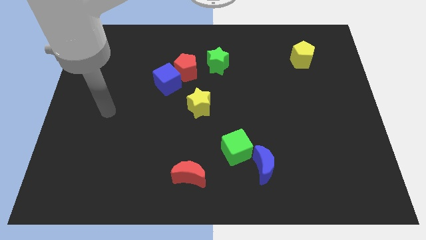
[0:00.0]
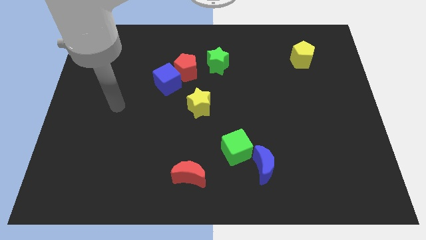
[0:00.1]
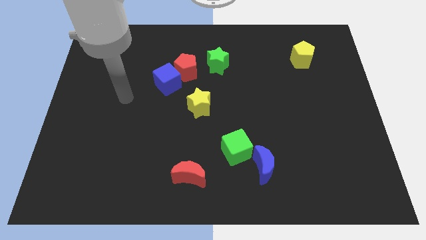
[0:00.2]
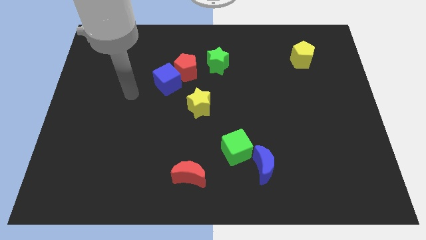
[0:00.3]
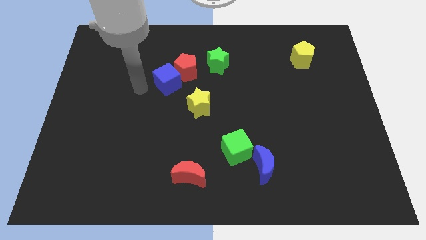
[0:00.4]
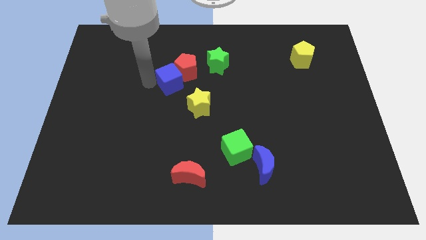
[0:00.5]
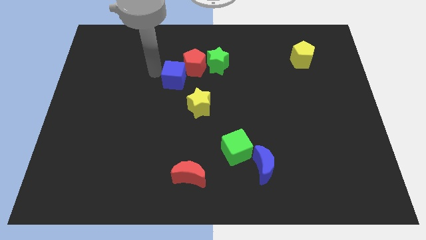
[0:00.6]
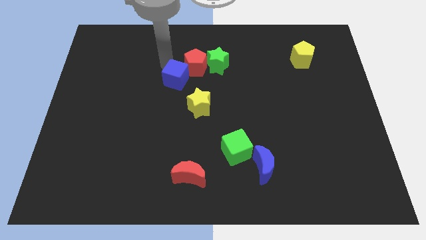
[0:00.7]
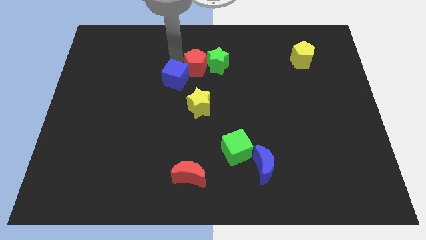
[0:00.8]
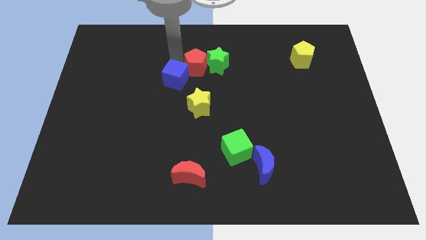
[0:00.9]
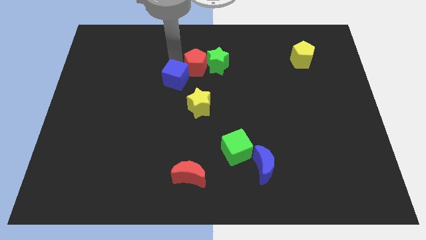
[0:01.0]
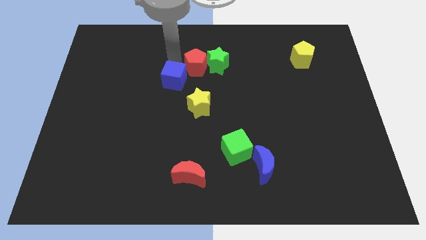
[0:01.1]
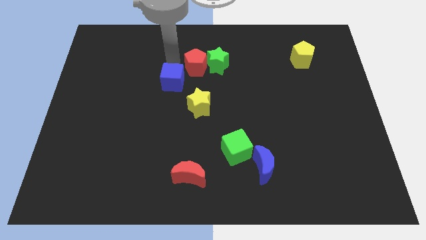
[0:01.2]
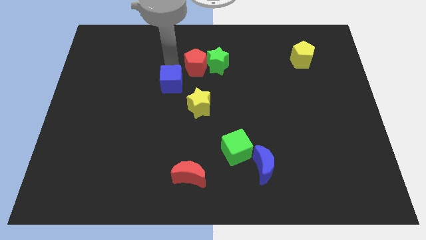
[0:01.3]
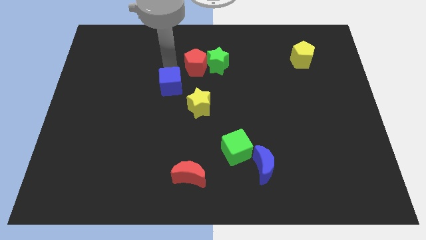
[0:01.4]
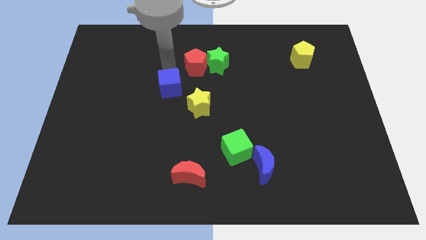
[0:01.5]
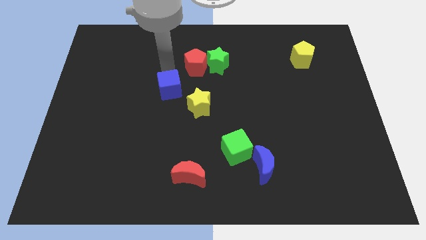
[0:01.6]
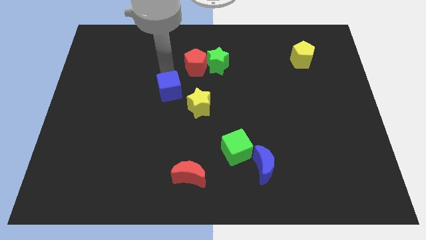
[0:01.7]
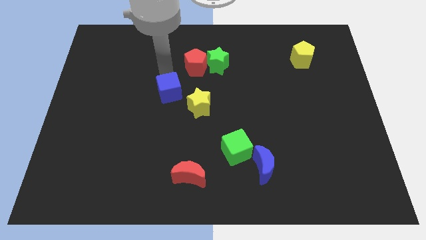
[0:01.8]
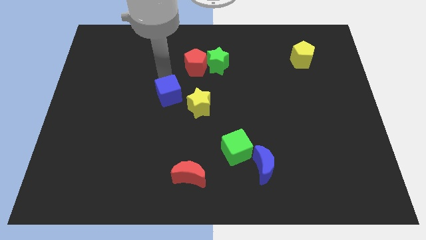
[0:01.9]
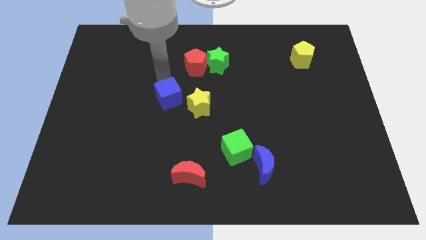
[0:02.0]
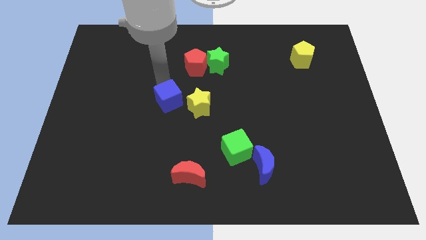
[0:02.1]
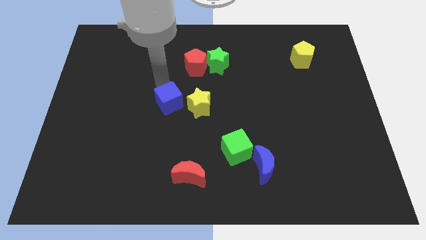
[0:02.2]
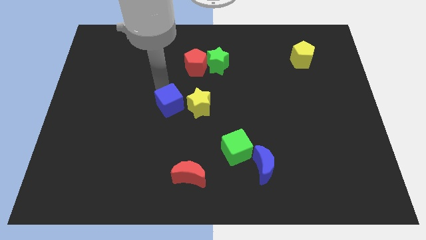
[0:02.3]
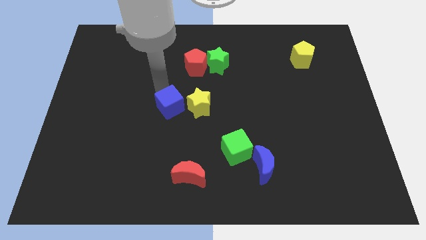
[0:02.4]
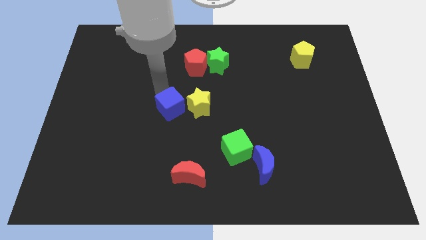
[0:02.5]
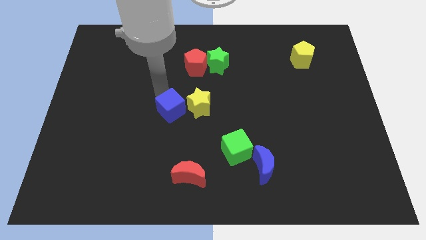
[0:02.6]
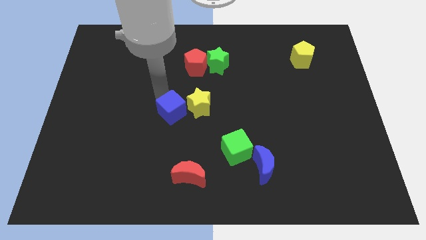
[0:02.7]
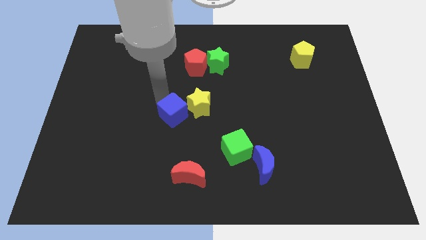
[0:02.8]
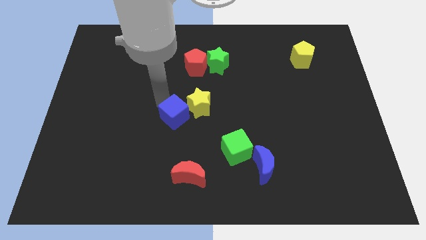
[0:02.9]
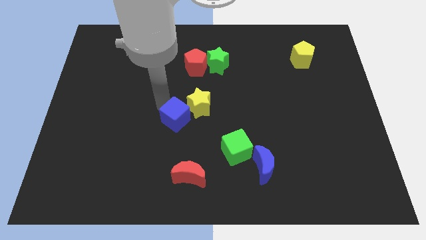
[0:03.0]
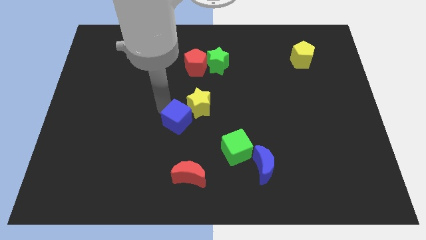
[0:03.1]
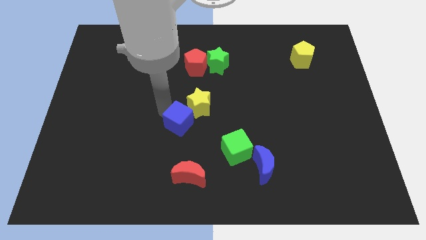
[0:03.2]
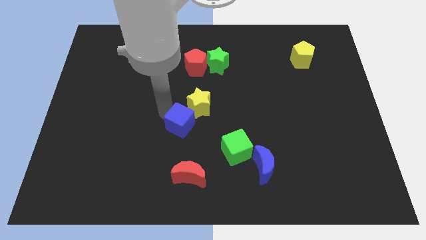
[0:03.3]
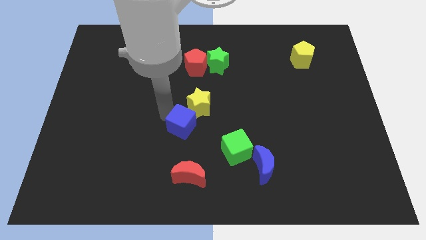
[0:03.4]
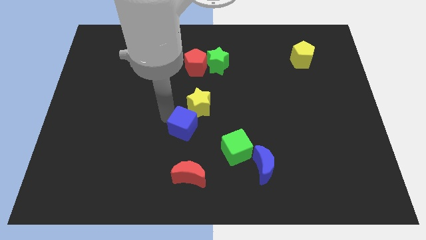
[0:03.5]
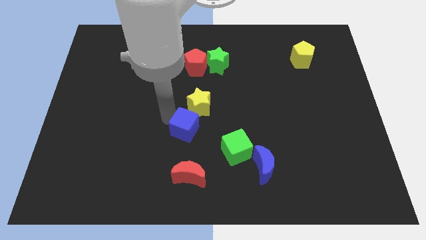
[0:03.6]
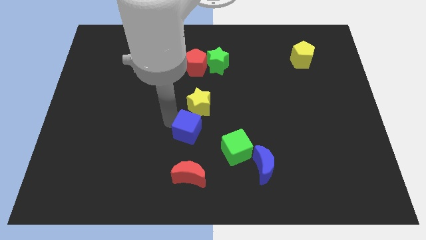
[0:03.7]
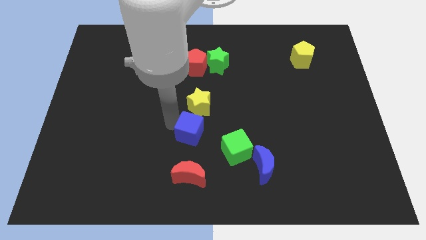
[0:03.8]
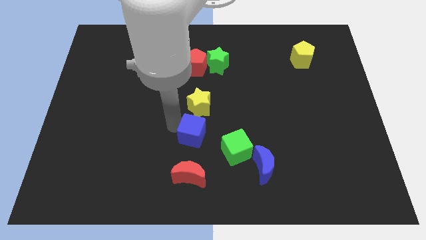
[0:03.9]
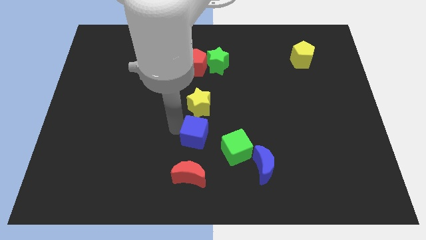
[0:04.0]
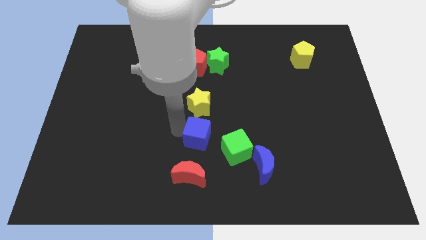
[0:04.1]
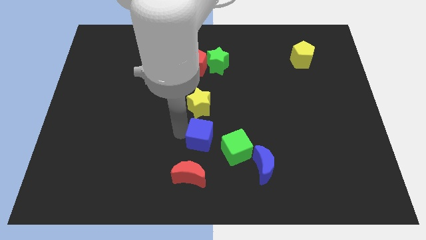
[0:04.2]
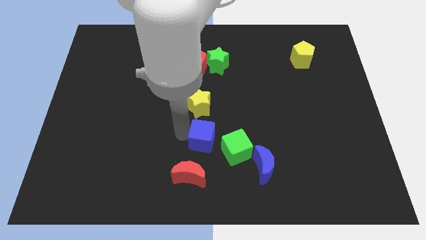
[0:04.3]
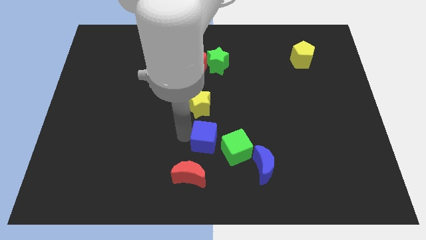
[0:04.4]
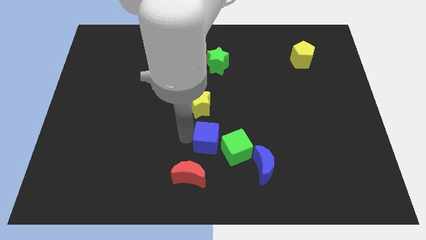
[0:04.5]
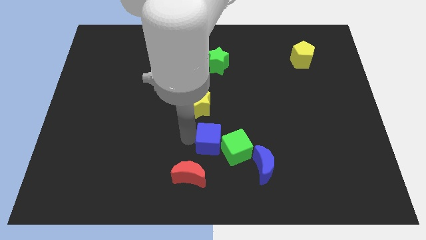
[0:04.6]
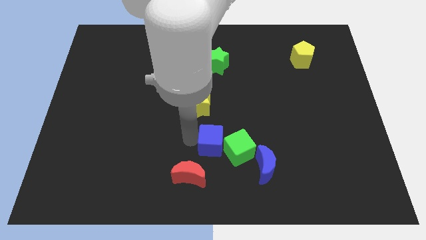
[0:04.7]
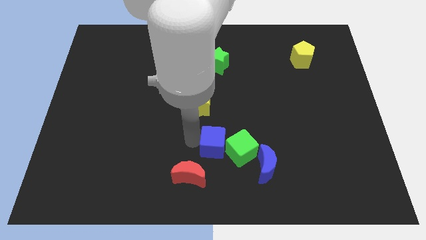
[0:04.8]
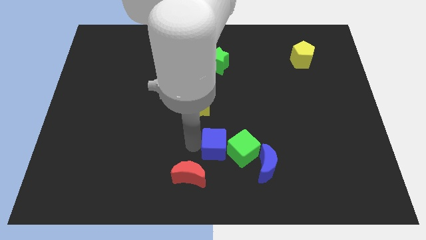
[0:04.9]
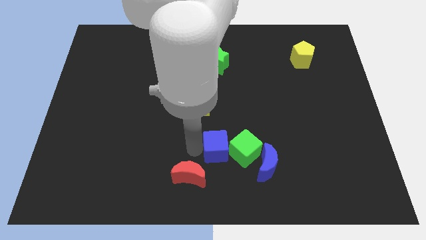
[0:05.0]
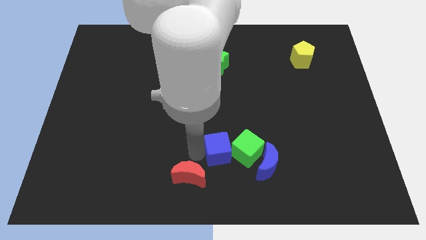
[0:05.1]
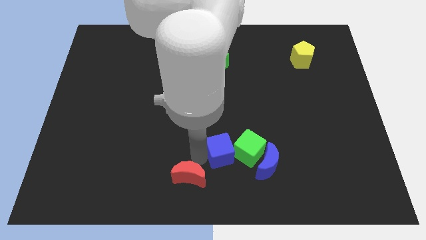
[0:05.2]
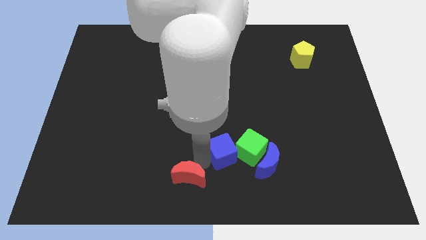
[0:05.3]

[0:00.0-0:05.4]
slide the blue cube diagonally up and to the left of the blue moon

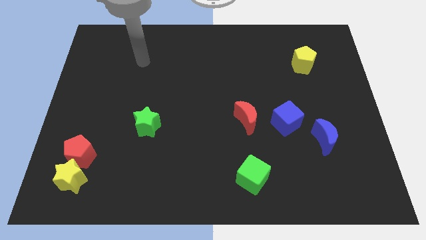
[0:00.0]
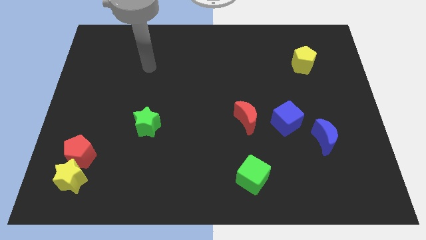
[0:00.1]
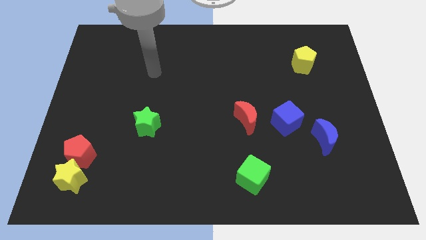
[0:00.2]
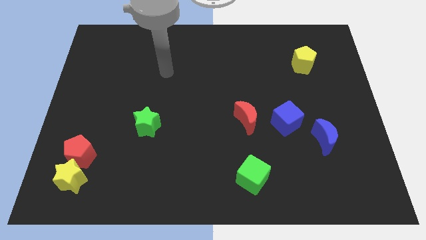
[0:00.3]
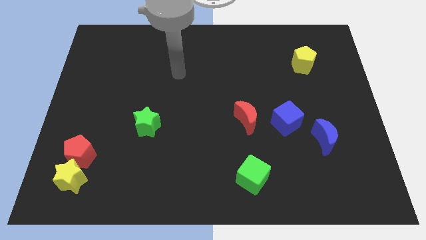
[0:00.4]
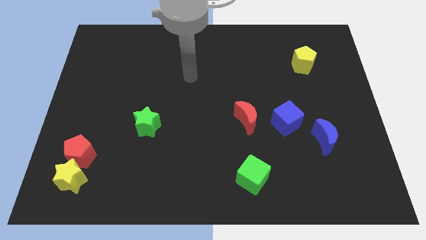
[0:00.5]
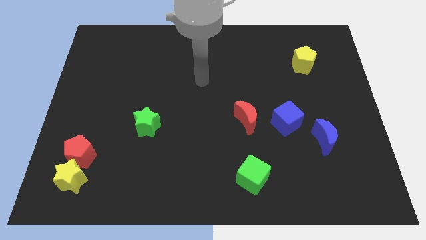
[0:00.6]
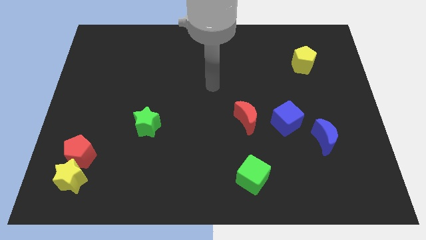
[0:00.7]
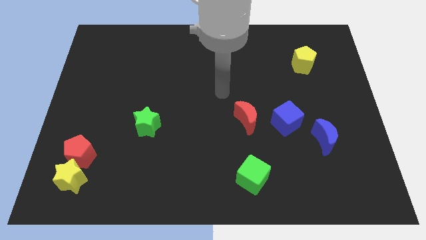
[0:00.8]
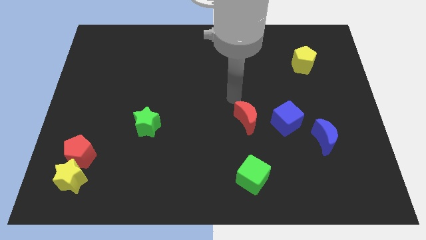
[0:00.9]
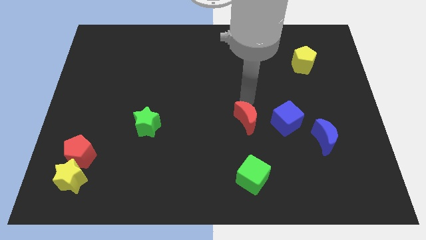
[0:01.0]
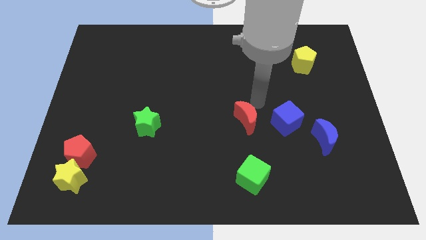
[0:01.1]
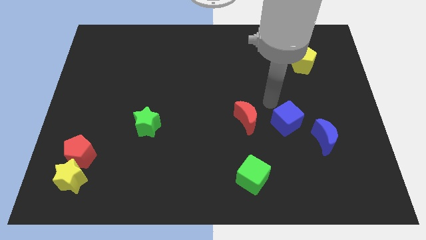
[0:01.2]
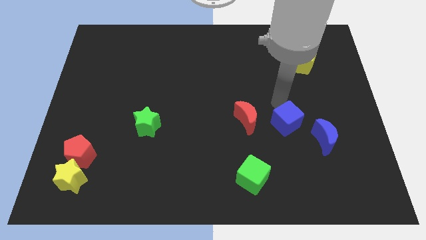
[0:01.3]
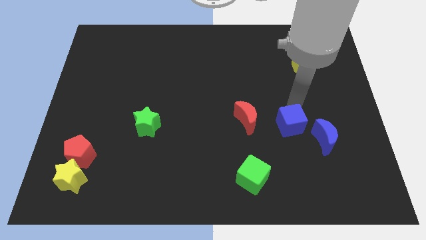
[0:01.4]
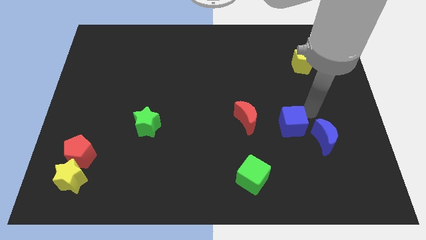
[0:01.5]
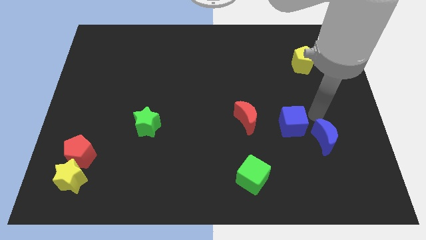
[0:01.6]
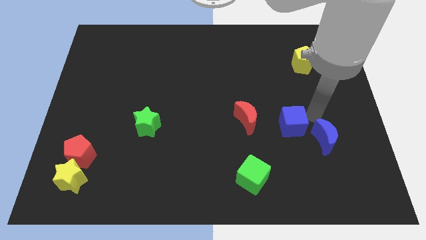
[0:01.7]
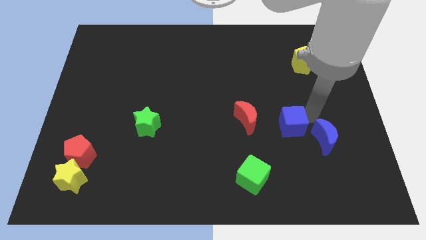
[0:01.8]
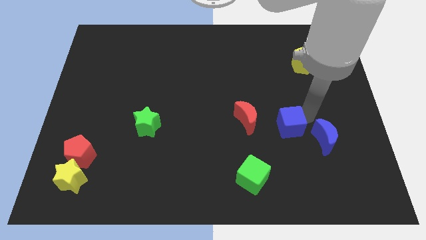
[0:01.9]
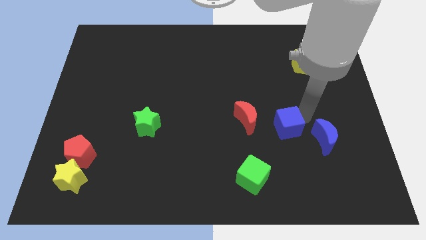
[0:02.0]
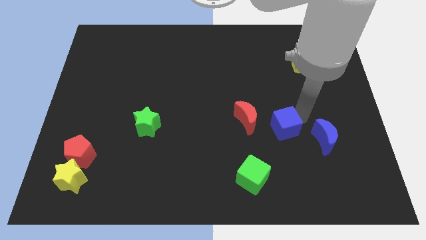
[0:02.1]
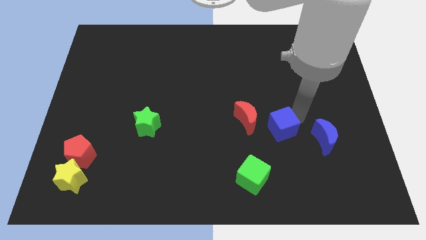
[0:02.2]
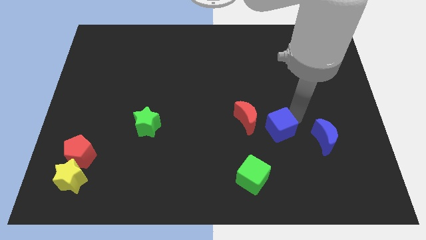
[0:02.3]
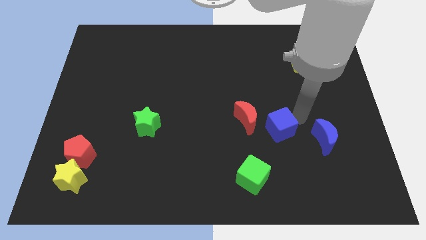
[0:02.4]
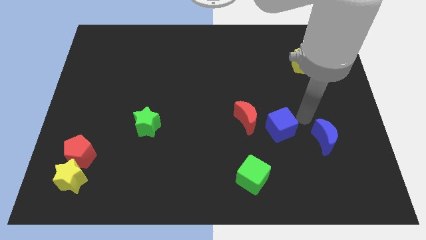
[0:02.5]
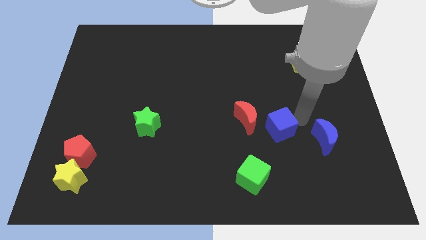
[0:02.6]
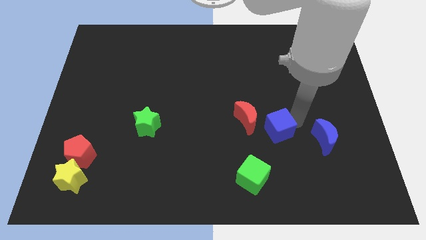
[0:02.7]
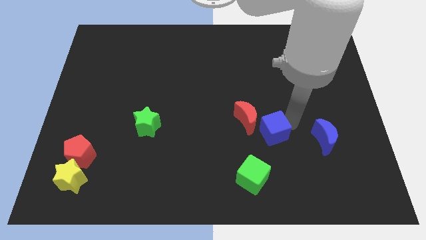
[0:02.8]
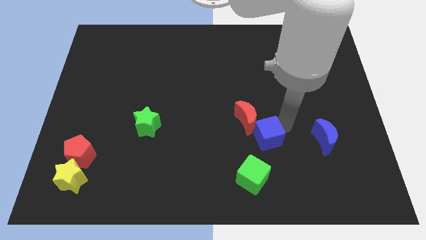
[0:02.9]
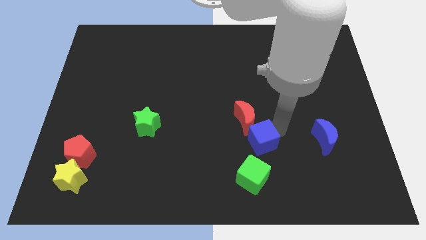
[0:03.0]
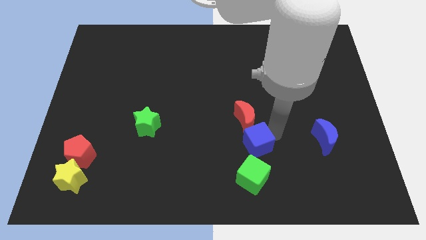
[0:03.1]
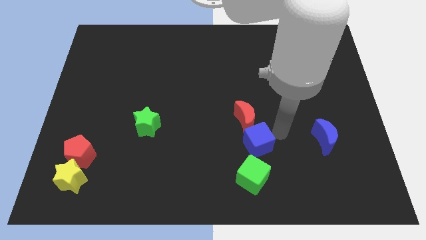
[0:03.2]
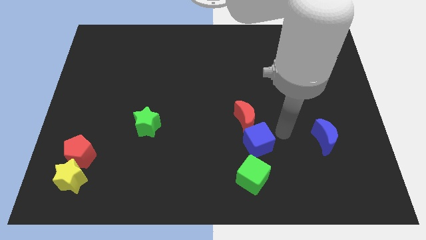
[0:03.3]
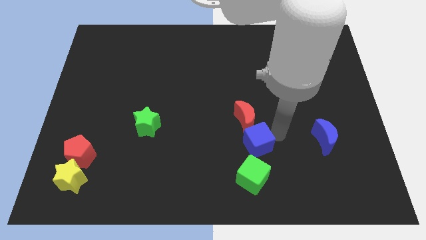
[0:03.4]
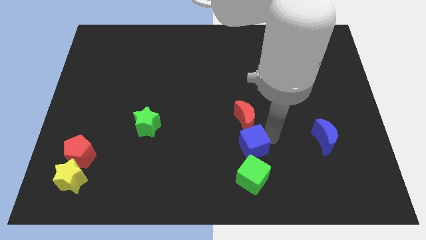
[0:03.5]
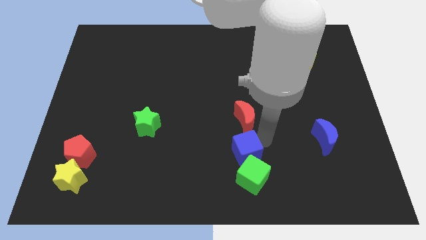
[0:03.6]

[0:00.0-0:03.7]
slide the blue cube diagonally up and to the left of the green cube
